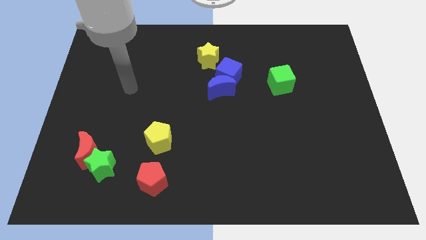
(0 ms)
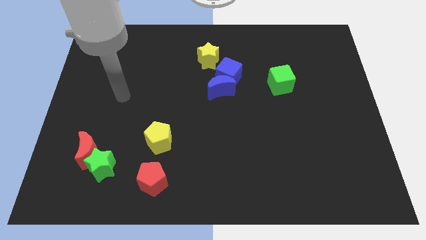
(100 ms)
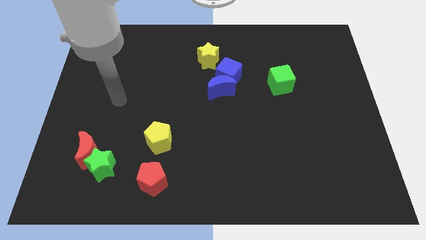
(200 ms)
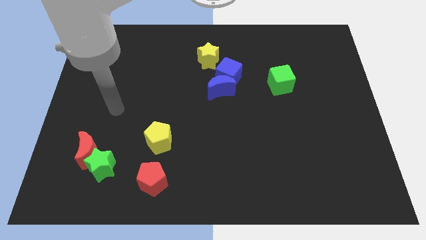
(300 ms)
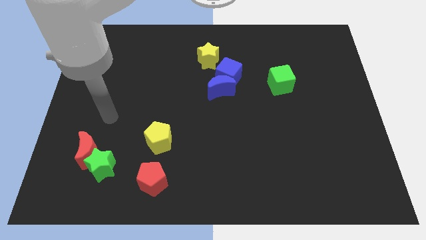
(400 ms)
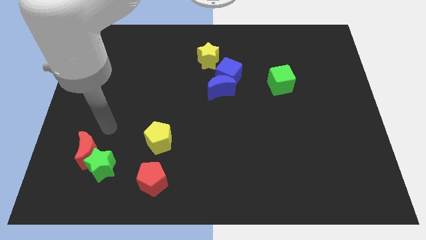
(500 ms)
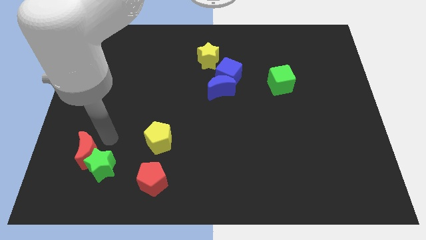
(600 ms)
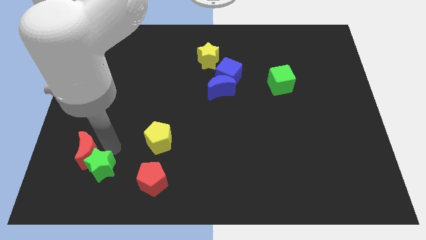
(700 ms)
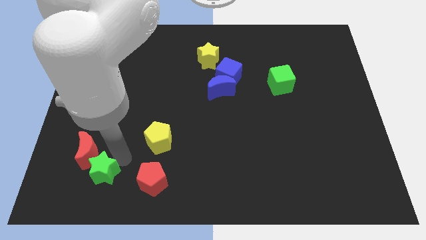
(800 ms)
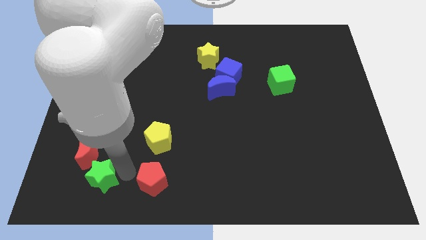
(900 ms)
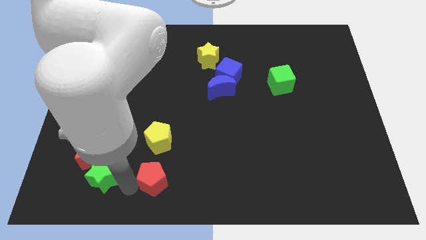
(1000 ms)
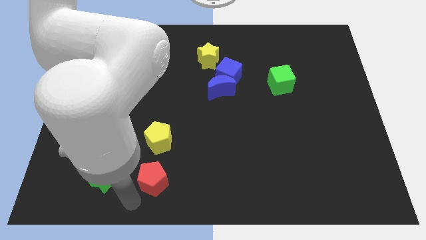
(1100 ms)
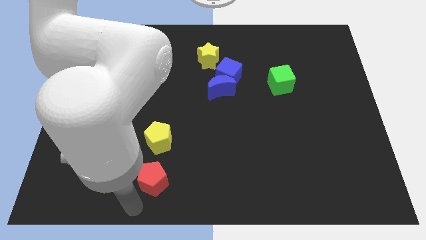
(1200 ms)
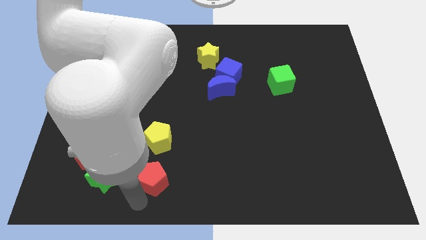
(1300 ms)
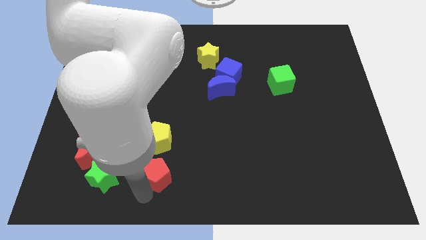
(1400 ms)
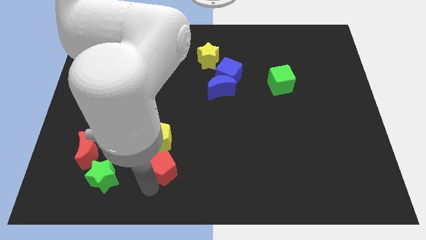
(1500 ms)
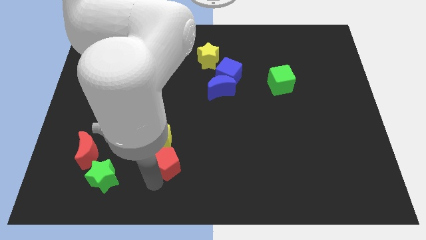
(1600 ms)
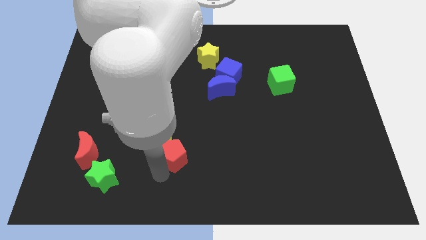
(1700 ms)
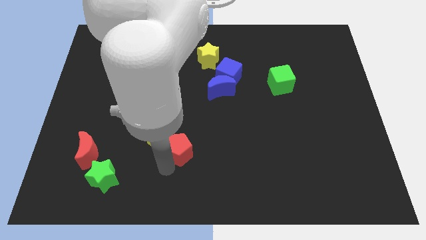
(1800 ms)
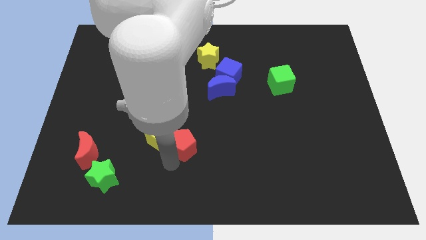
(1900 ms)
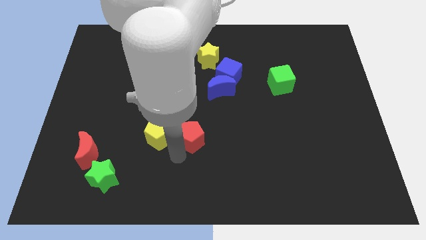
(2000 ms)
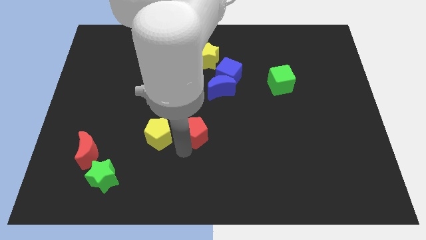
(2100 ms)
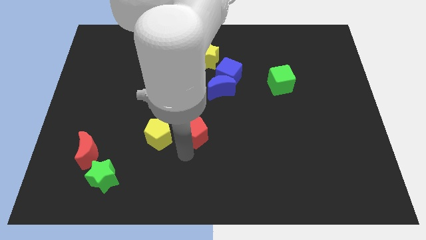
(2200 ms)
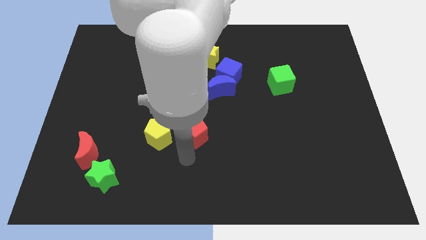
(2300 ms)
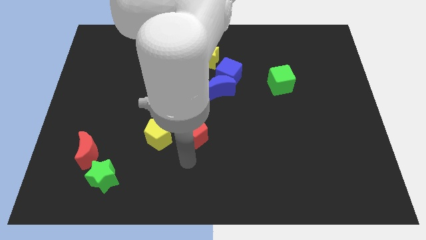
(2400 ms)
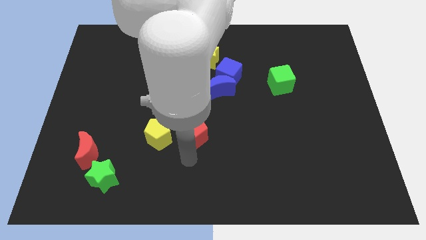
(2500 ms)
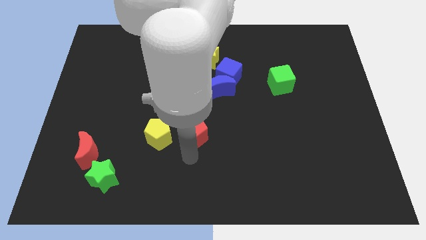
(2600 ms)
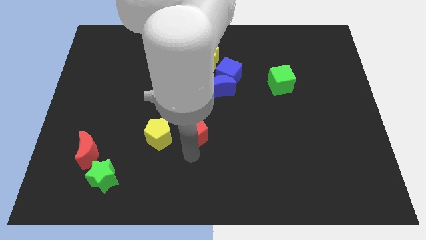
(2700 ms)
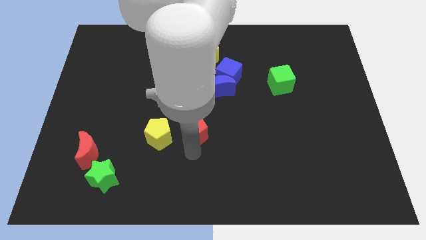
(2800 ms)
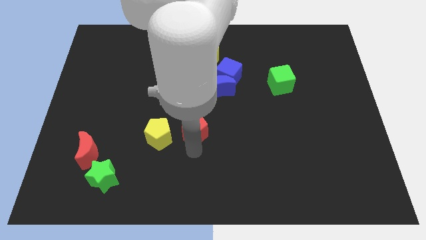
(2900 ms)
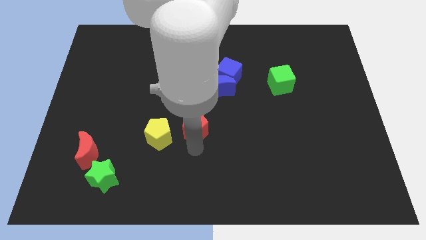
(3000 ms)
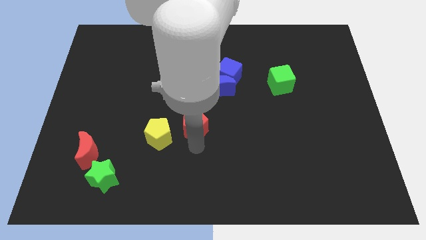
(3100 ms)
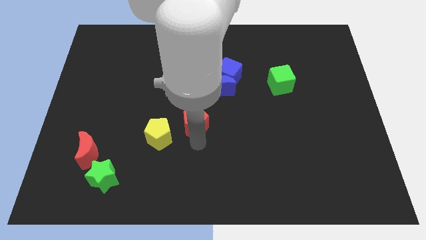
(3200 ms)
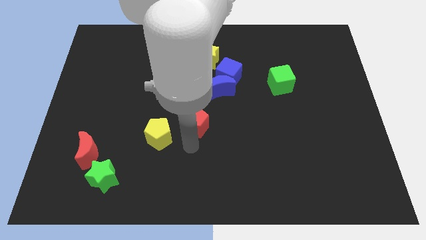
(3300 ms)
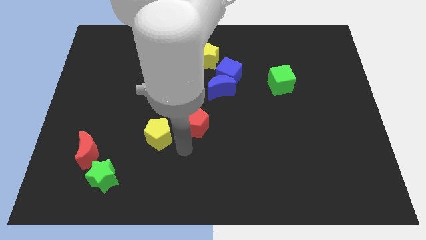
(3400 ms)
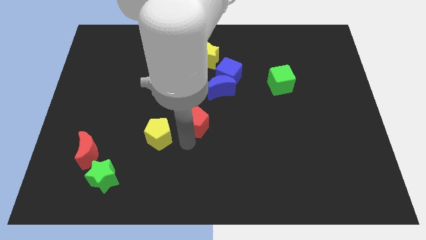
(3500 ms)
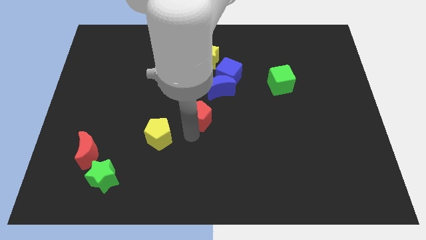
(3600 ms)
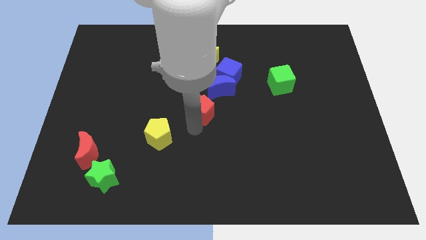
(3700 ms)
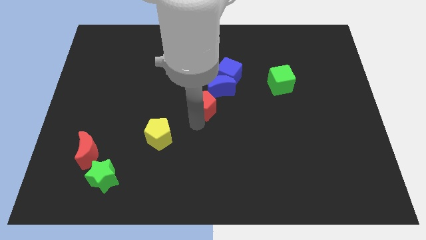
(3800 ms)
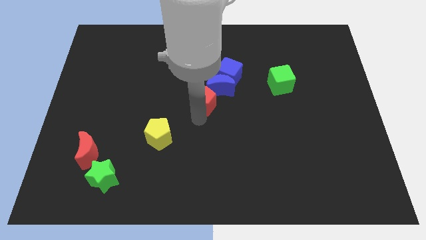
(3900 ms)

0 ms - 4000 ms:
push the red pentagon to the blue moon

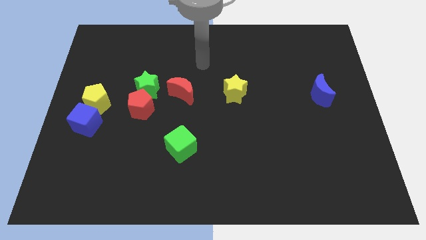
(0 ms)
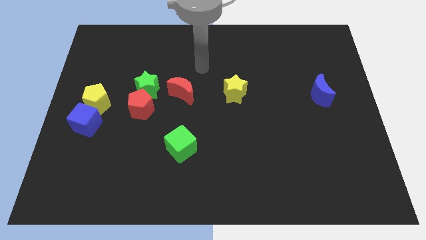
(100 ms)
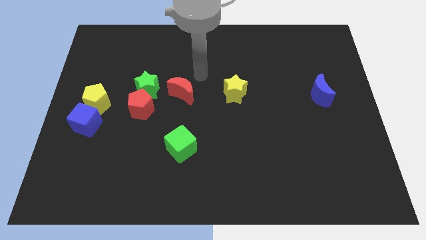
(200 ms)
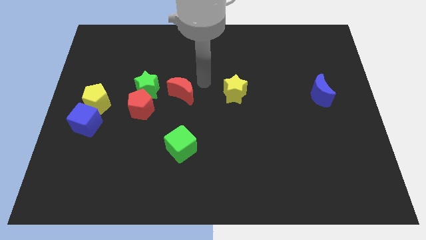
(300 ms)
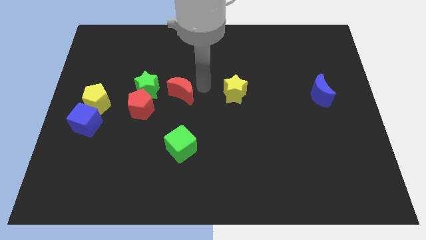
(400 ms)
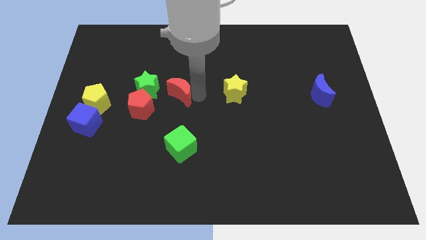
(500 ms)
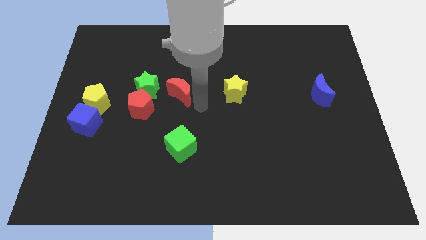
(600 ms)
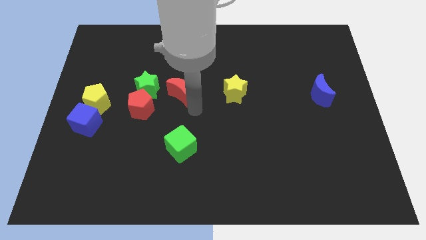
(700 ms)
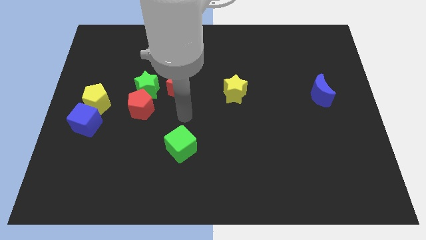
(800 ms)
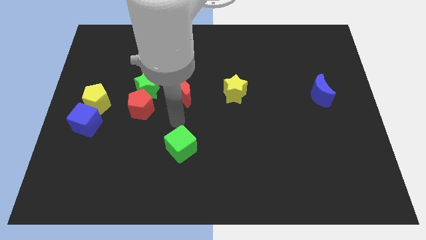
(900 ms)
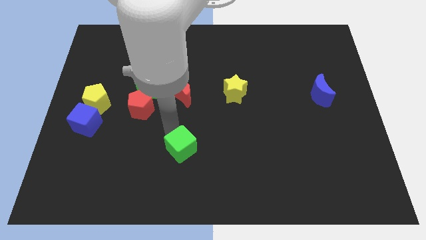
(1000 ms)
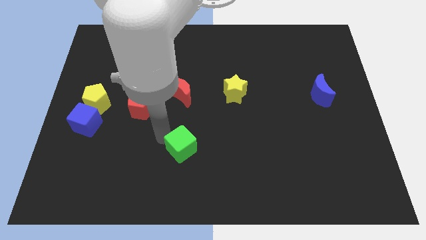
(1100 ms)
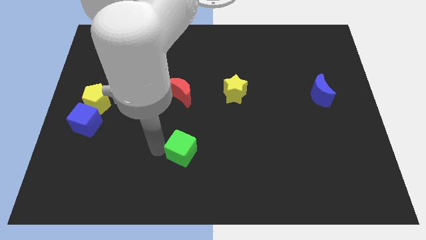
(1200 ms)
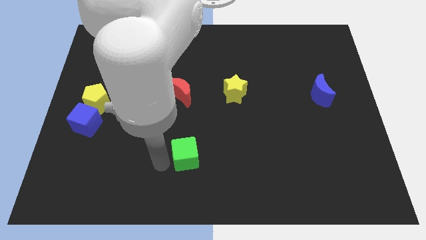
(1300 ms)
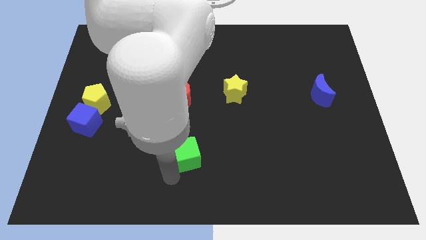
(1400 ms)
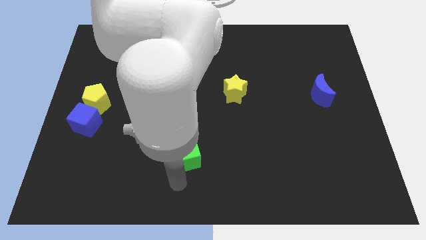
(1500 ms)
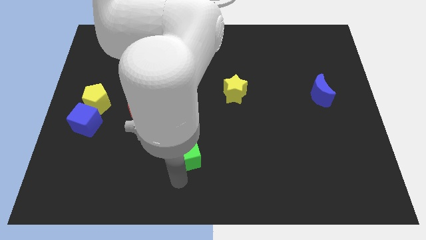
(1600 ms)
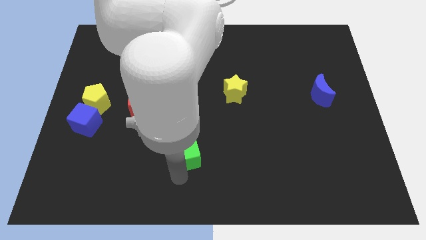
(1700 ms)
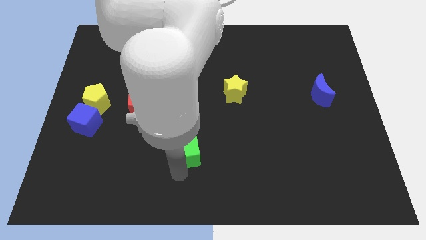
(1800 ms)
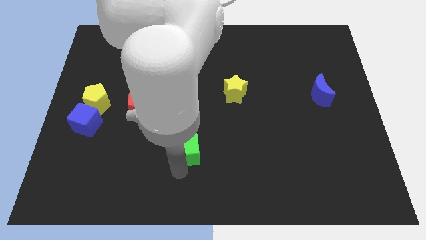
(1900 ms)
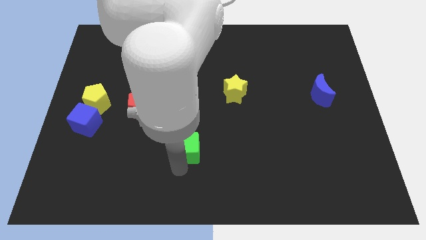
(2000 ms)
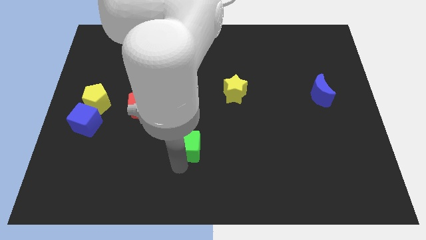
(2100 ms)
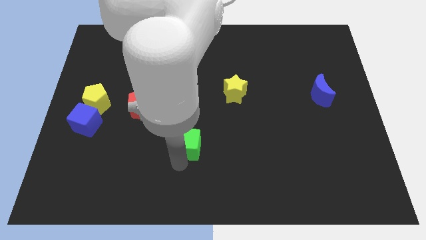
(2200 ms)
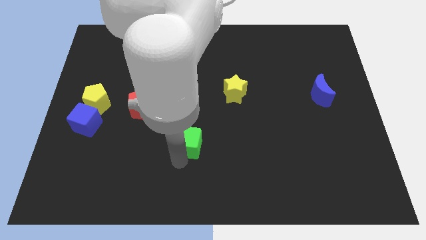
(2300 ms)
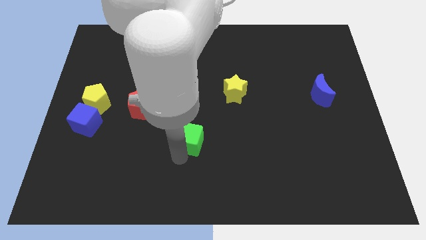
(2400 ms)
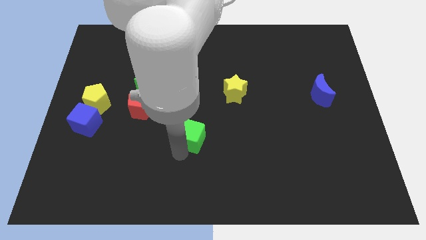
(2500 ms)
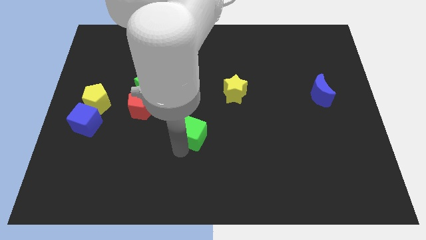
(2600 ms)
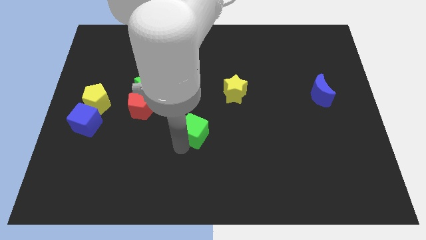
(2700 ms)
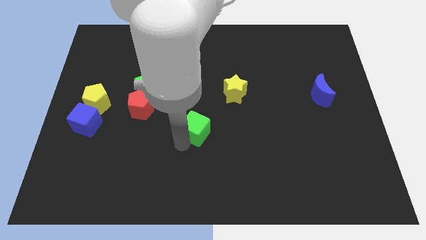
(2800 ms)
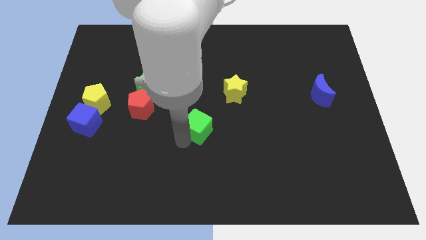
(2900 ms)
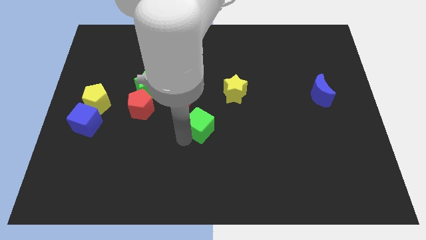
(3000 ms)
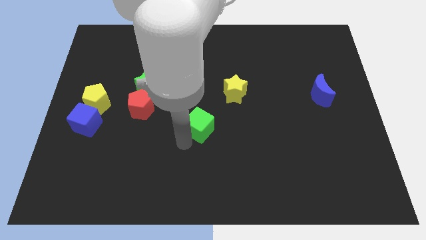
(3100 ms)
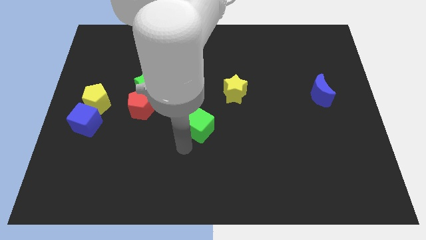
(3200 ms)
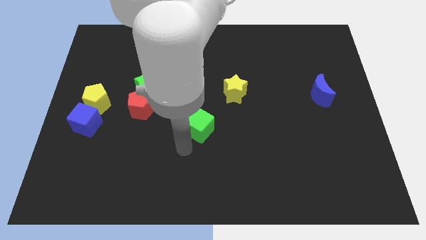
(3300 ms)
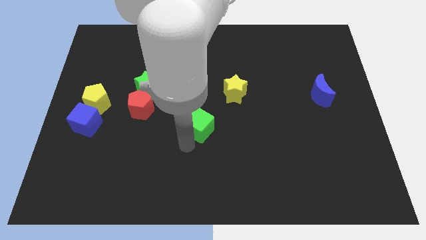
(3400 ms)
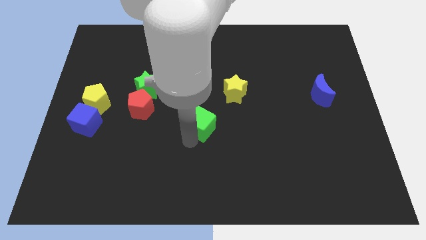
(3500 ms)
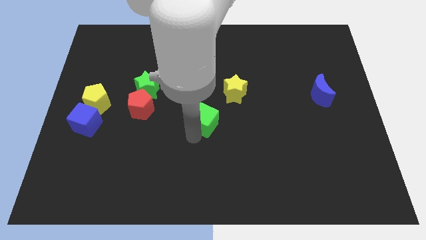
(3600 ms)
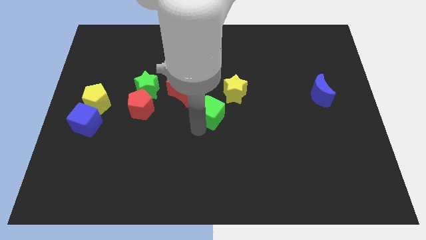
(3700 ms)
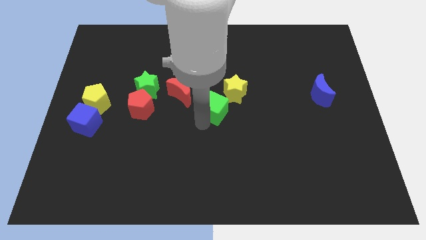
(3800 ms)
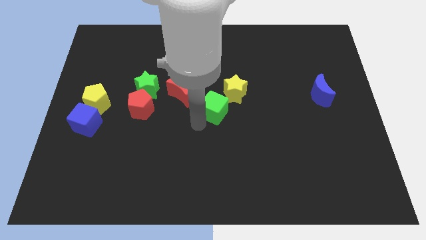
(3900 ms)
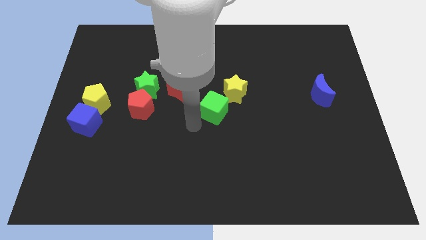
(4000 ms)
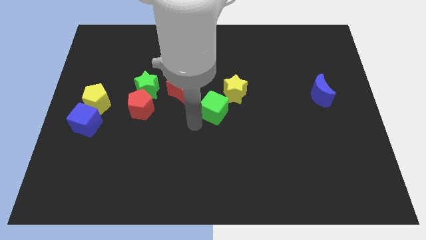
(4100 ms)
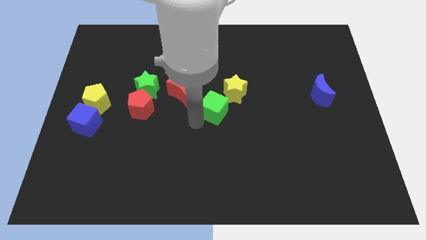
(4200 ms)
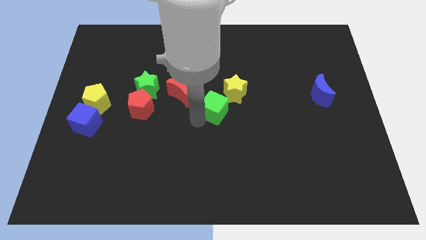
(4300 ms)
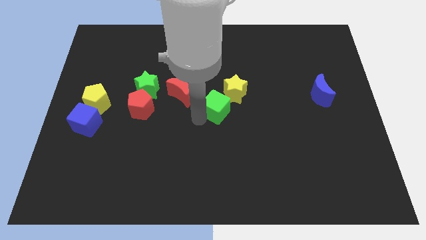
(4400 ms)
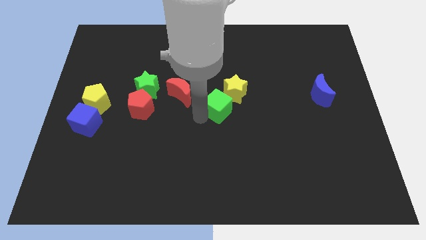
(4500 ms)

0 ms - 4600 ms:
move the green cube close to the yellow star
